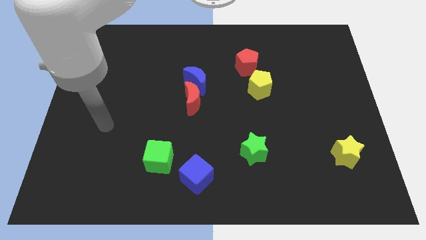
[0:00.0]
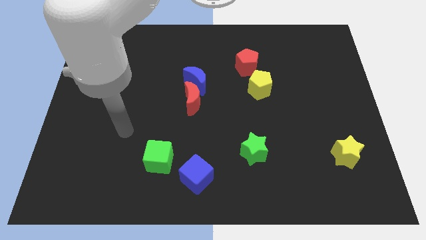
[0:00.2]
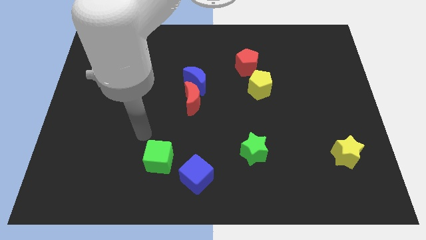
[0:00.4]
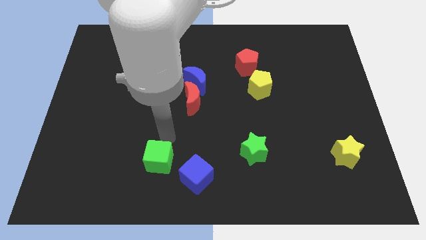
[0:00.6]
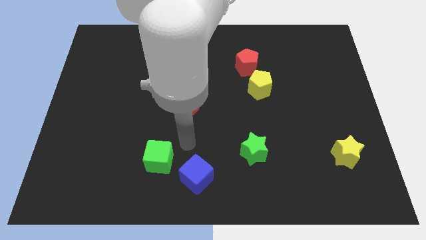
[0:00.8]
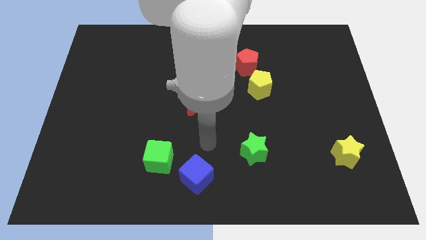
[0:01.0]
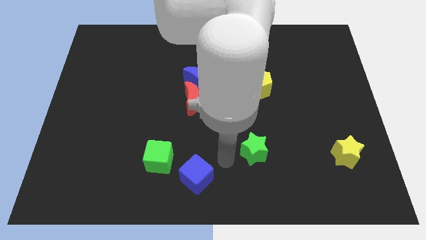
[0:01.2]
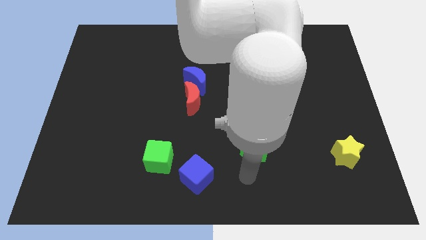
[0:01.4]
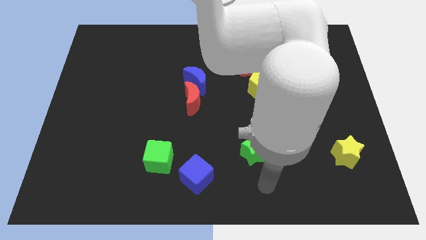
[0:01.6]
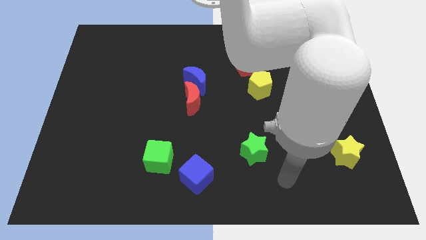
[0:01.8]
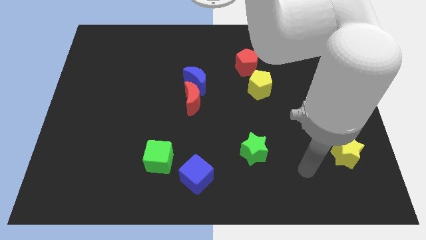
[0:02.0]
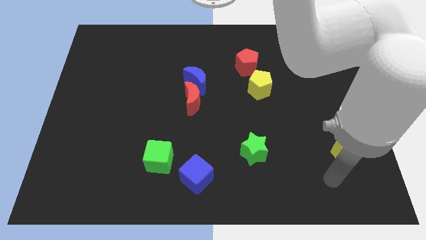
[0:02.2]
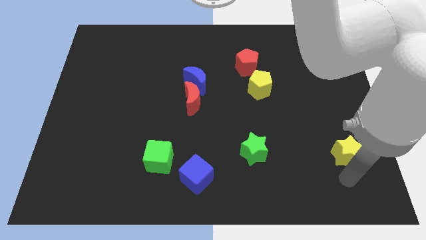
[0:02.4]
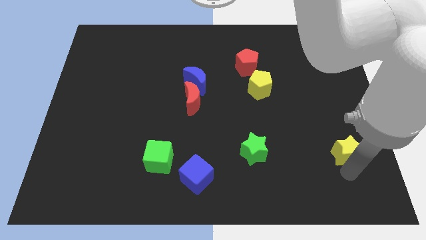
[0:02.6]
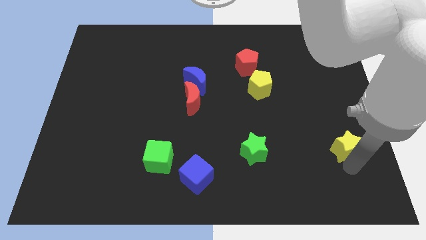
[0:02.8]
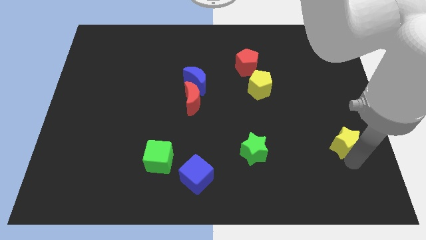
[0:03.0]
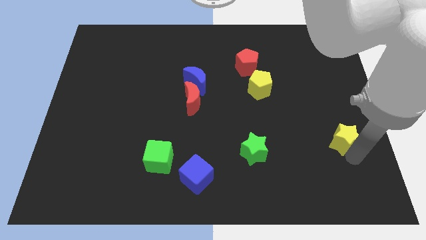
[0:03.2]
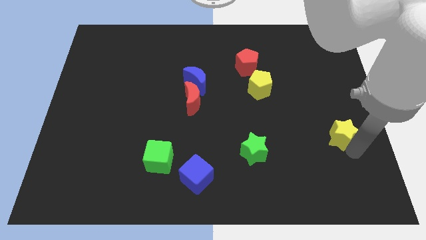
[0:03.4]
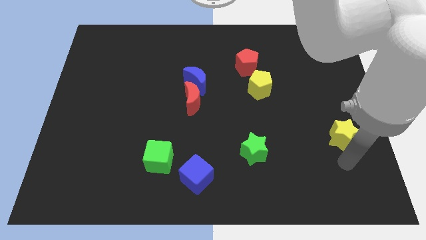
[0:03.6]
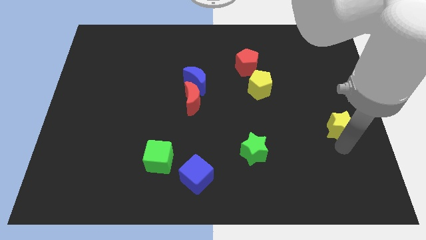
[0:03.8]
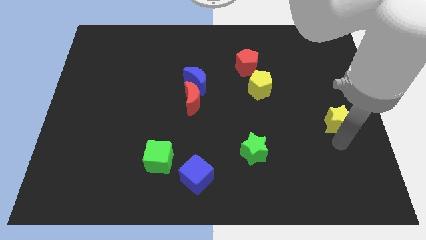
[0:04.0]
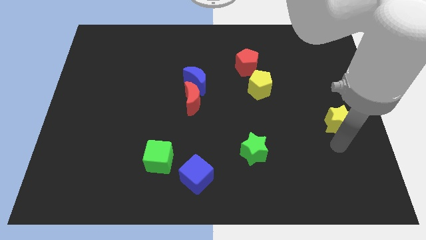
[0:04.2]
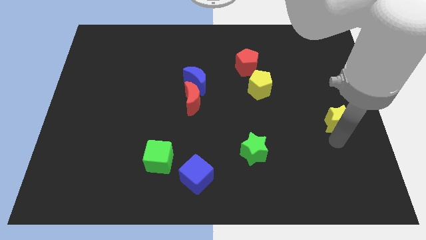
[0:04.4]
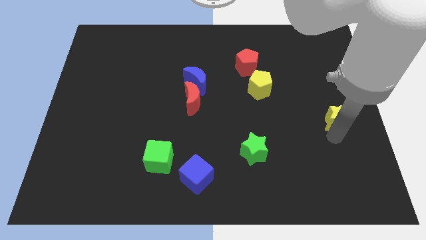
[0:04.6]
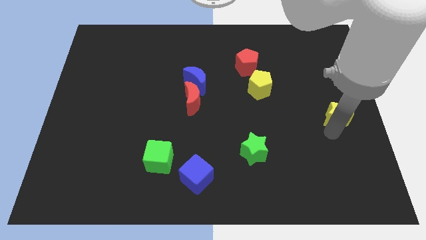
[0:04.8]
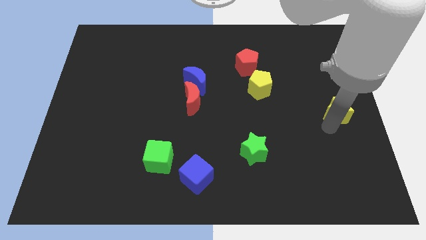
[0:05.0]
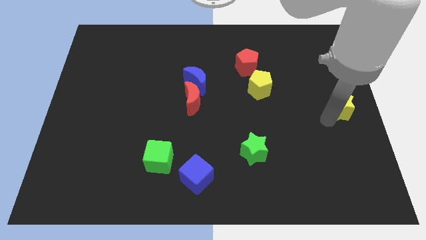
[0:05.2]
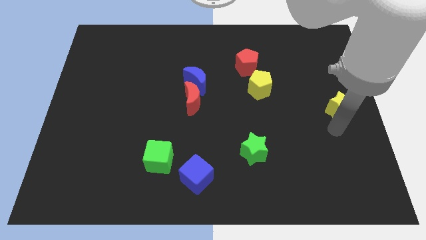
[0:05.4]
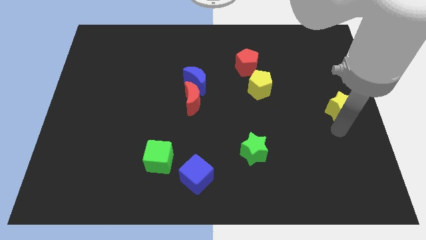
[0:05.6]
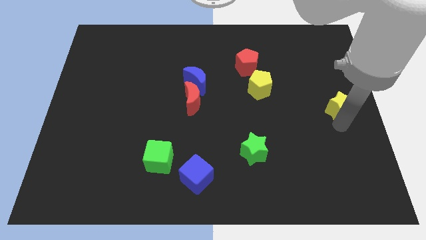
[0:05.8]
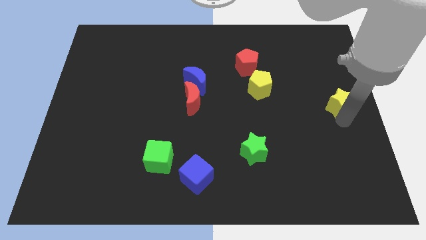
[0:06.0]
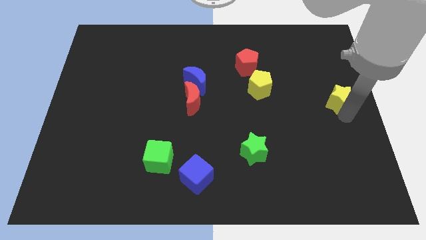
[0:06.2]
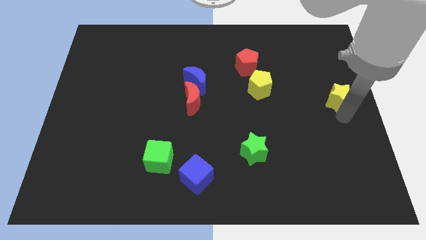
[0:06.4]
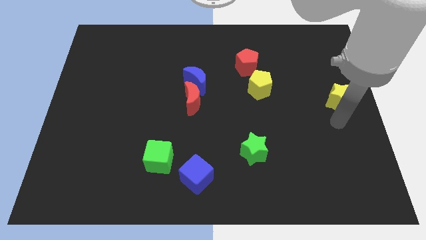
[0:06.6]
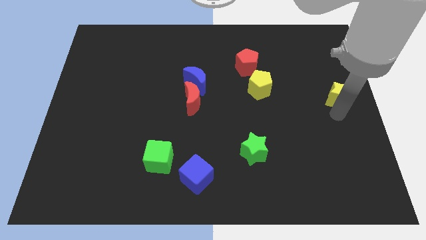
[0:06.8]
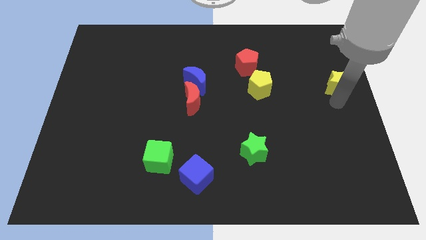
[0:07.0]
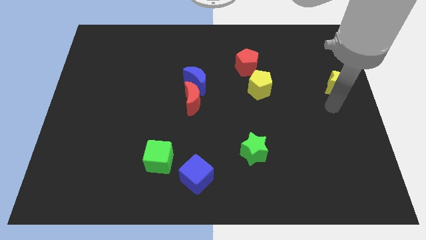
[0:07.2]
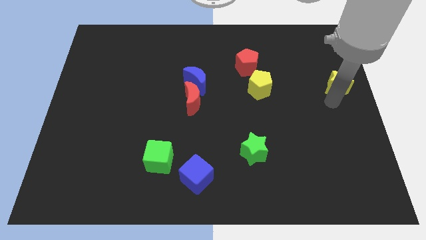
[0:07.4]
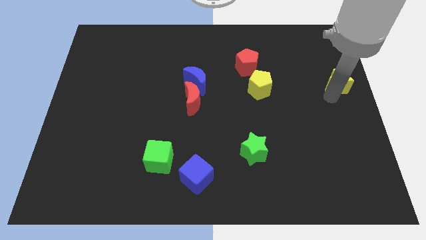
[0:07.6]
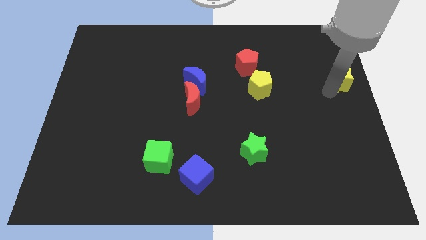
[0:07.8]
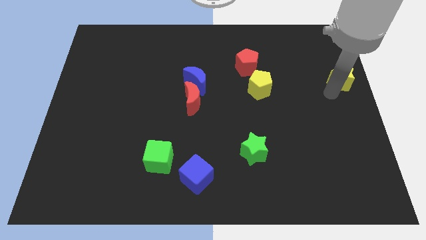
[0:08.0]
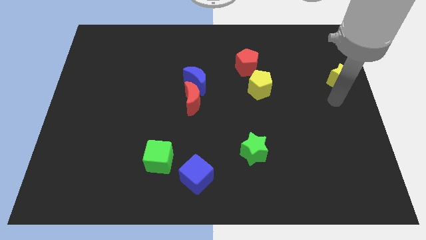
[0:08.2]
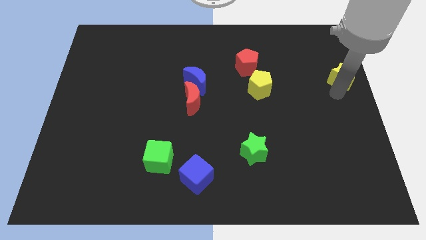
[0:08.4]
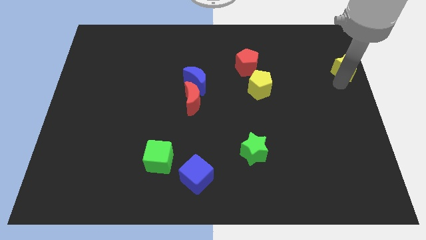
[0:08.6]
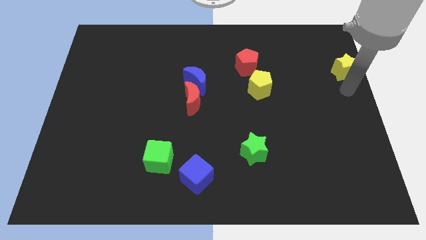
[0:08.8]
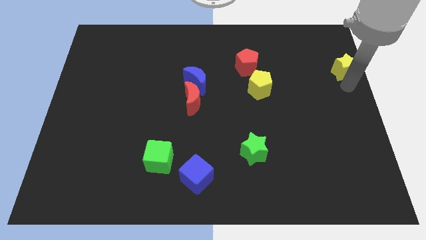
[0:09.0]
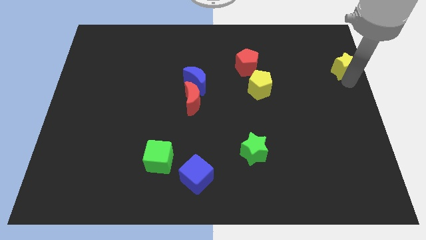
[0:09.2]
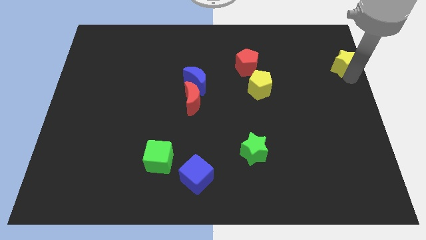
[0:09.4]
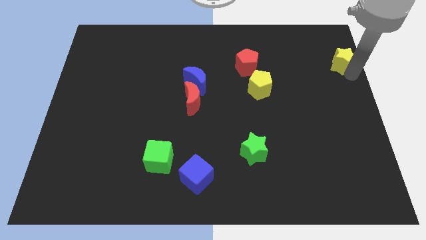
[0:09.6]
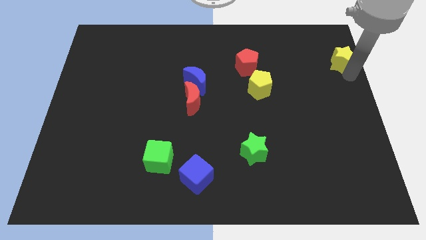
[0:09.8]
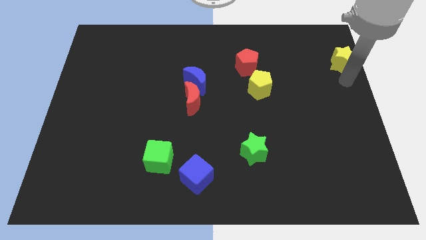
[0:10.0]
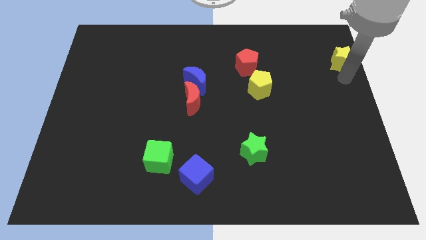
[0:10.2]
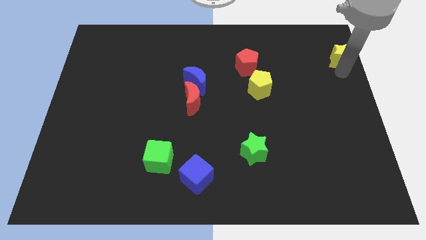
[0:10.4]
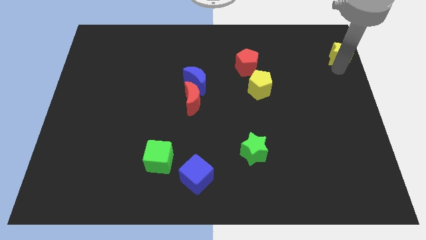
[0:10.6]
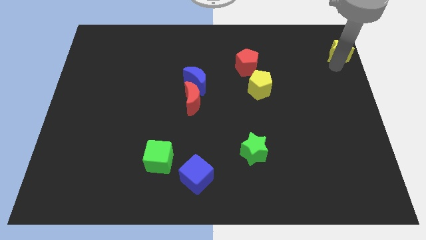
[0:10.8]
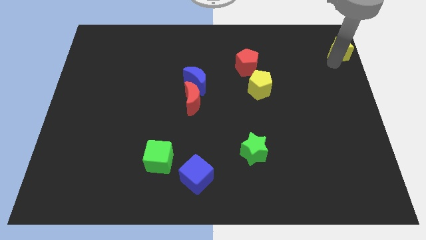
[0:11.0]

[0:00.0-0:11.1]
put the yellow star to the top right of the board

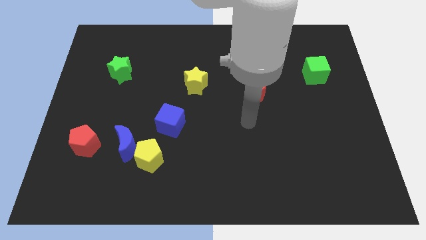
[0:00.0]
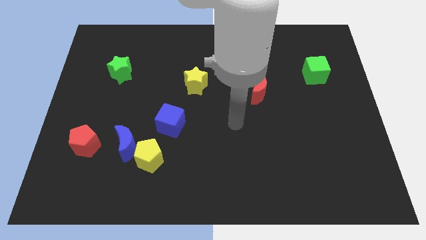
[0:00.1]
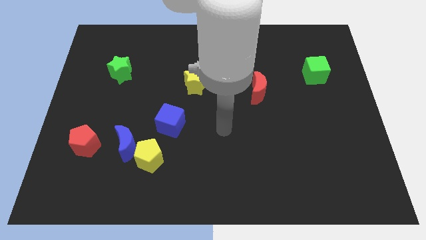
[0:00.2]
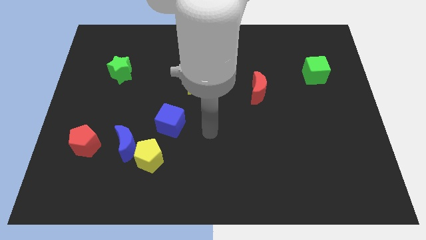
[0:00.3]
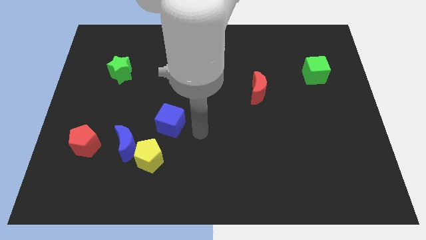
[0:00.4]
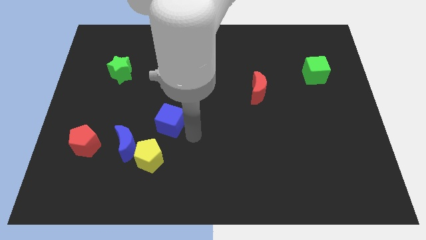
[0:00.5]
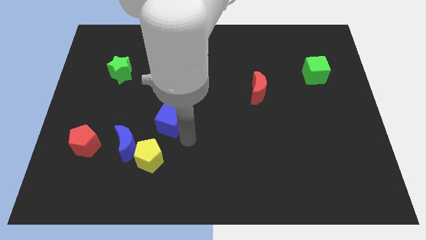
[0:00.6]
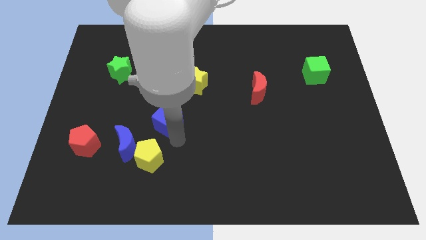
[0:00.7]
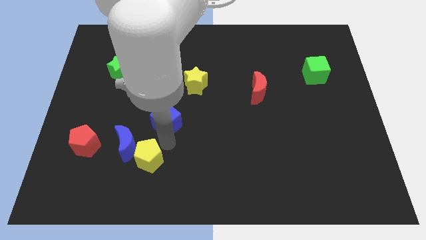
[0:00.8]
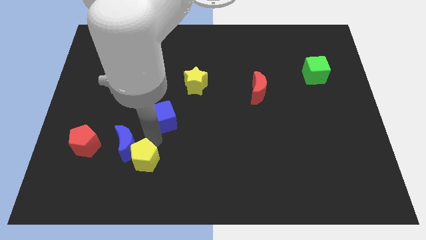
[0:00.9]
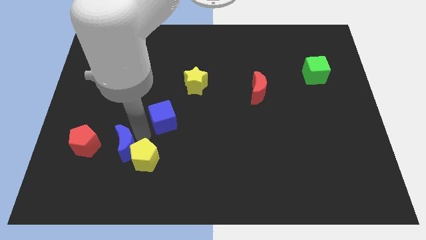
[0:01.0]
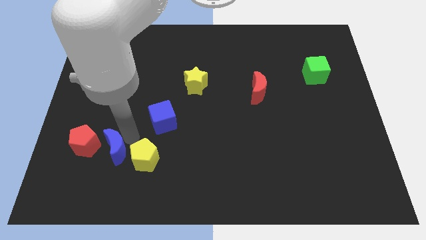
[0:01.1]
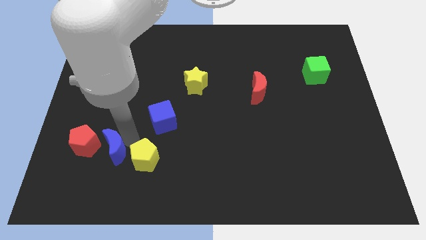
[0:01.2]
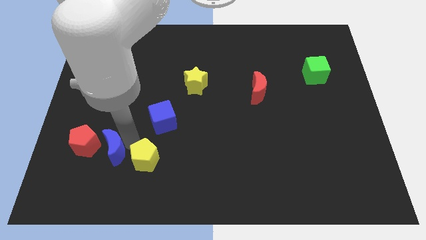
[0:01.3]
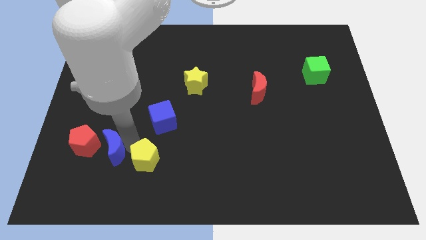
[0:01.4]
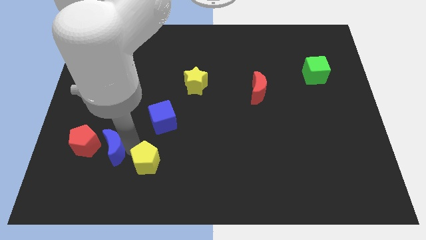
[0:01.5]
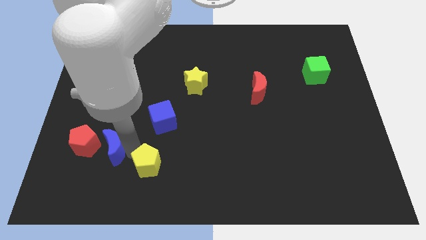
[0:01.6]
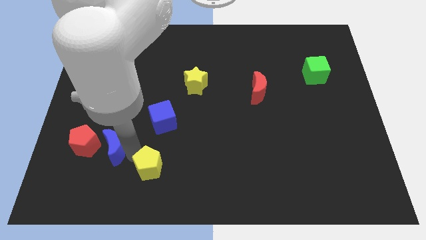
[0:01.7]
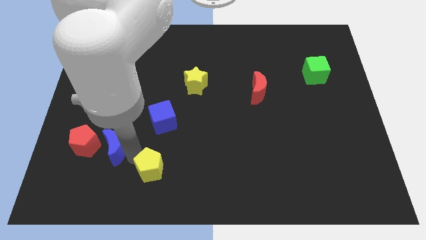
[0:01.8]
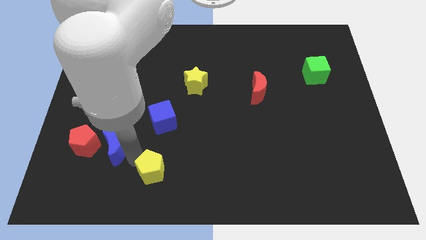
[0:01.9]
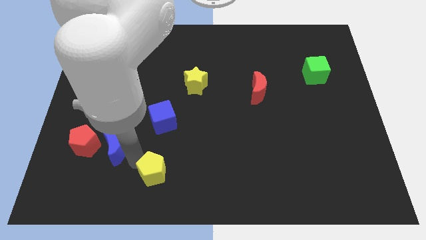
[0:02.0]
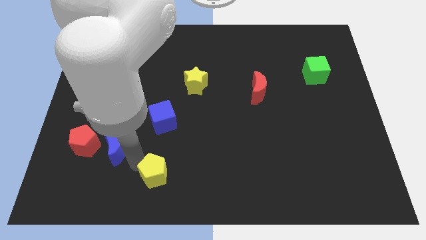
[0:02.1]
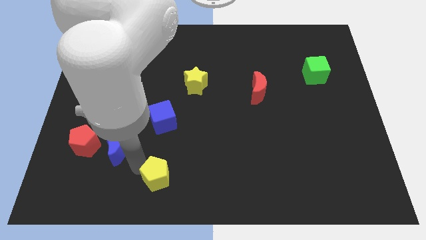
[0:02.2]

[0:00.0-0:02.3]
put the yellow pentagon to the bottom
